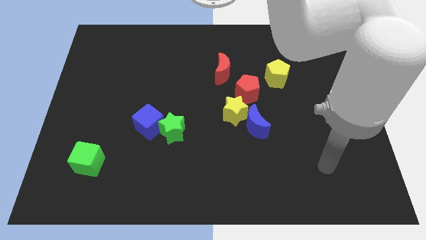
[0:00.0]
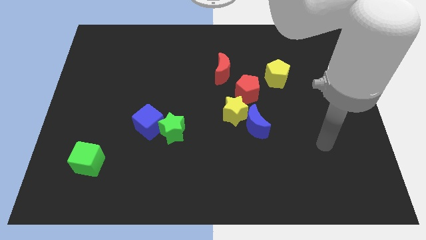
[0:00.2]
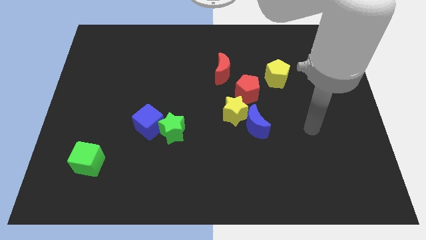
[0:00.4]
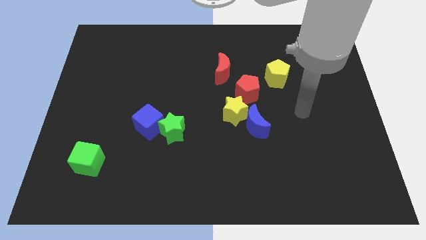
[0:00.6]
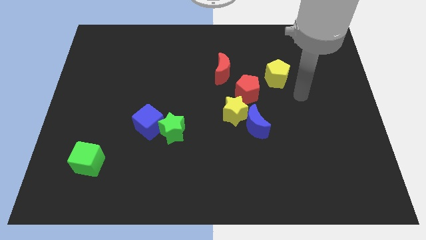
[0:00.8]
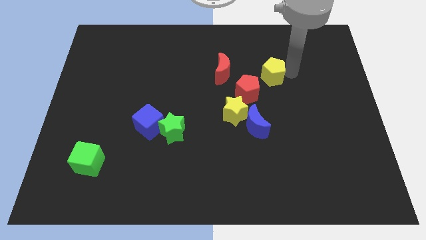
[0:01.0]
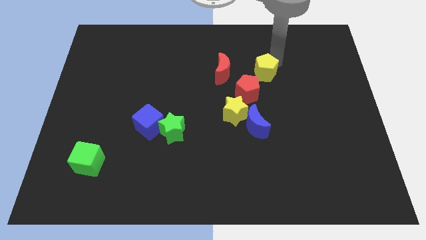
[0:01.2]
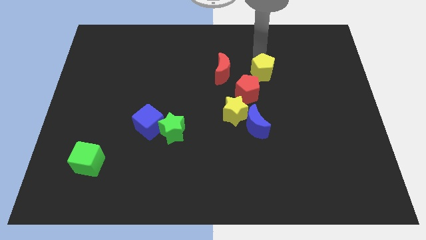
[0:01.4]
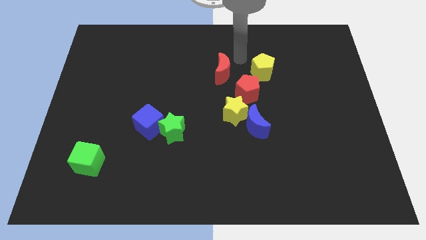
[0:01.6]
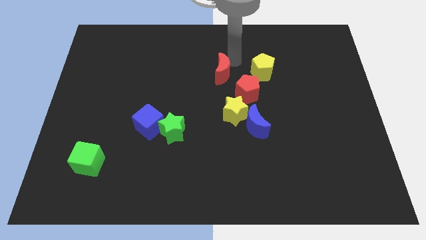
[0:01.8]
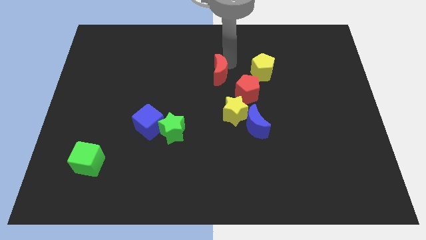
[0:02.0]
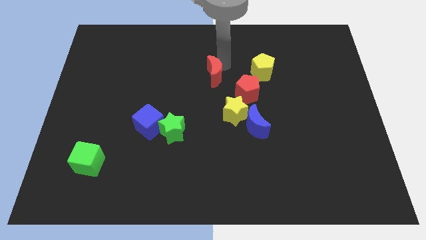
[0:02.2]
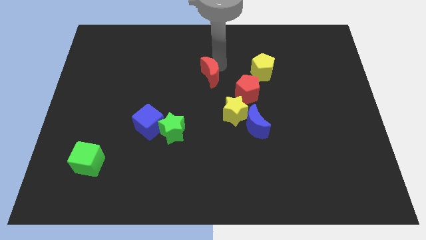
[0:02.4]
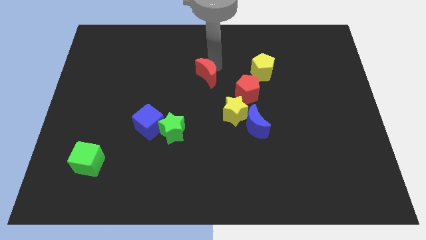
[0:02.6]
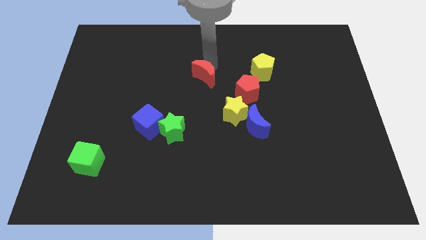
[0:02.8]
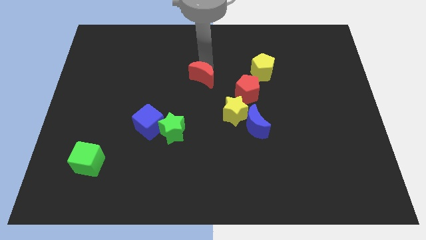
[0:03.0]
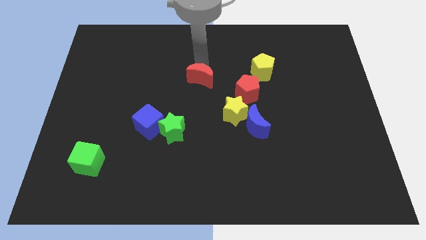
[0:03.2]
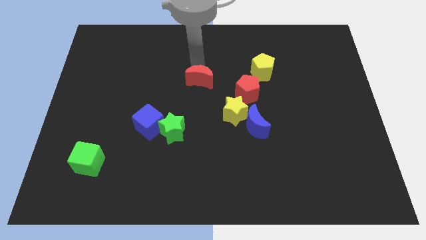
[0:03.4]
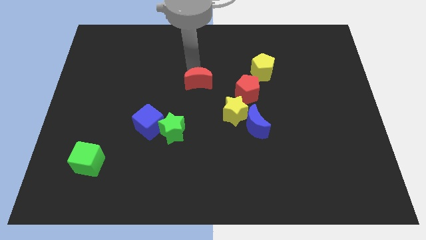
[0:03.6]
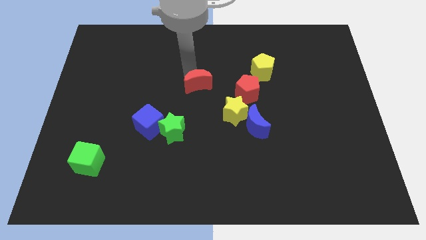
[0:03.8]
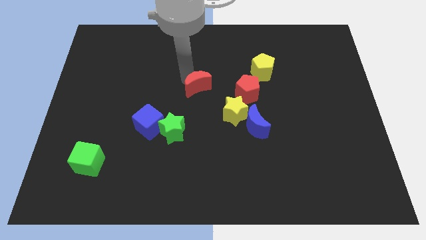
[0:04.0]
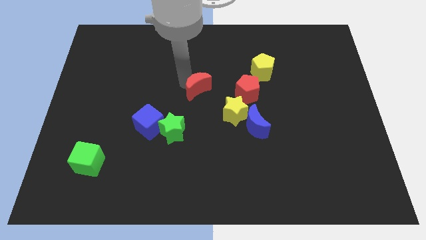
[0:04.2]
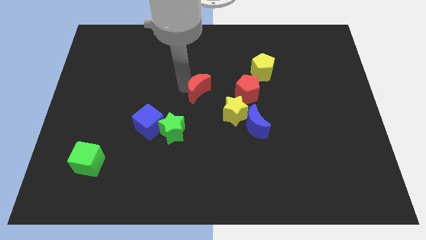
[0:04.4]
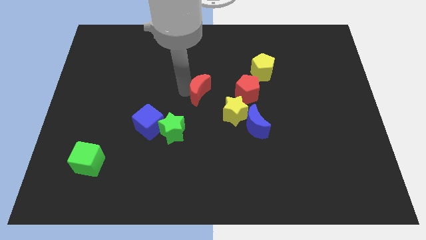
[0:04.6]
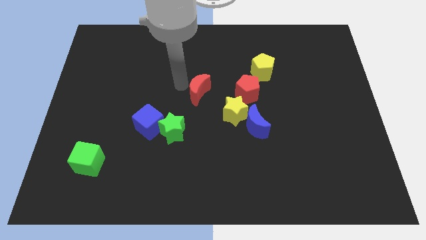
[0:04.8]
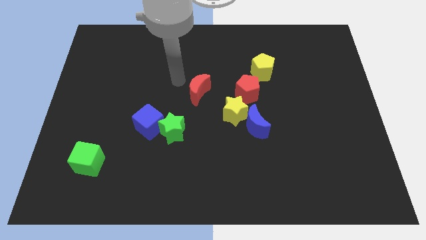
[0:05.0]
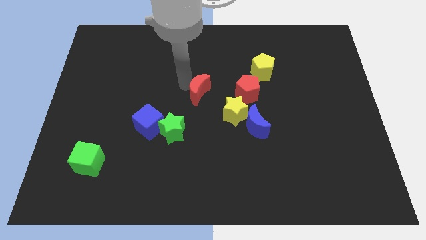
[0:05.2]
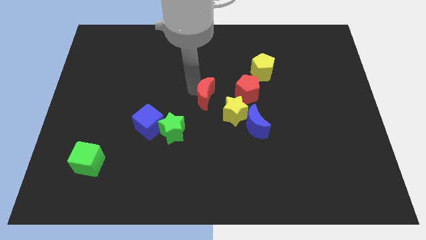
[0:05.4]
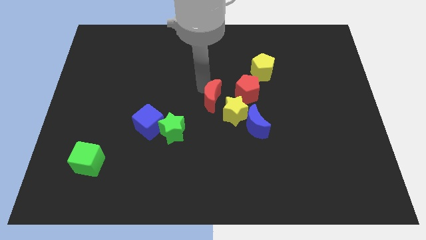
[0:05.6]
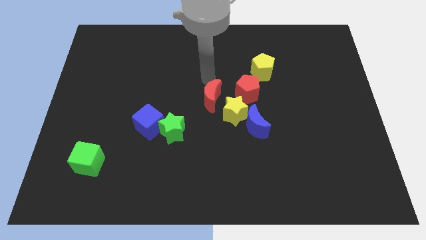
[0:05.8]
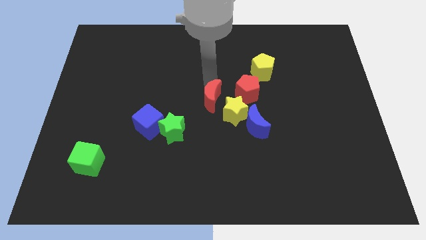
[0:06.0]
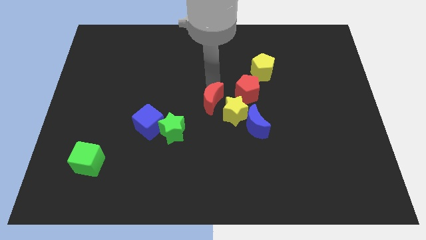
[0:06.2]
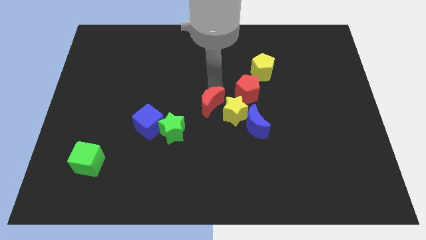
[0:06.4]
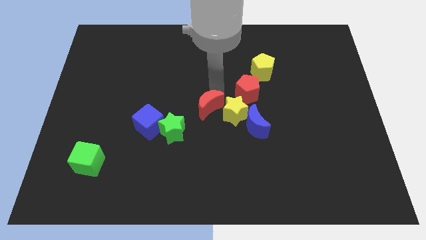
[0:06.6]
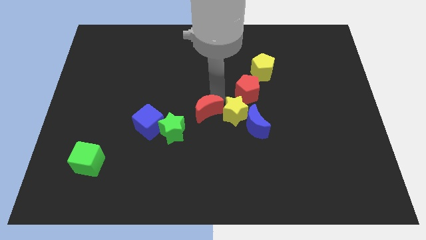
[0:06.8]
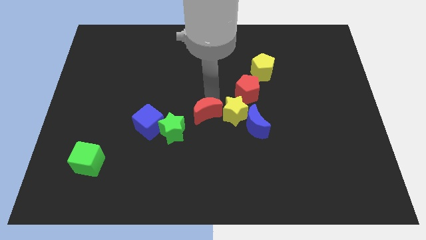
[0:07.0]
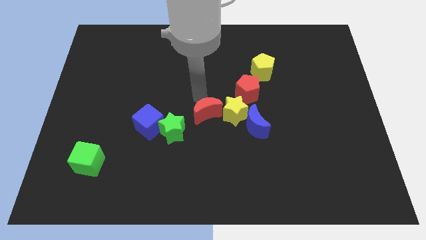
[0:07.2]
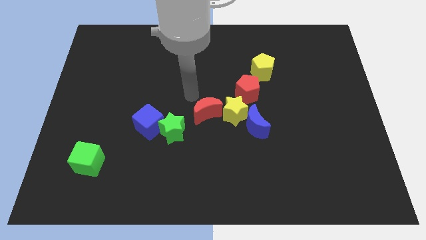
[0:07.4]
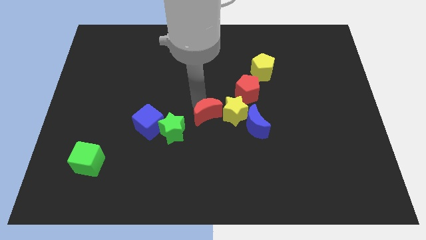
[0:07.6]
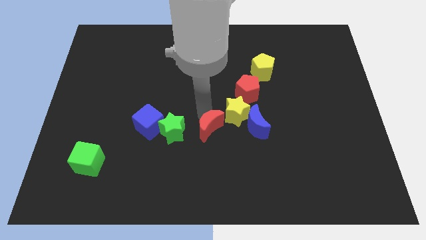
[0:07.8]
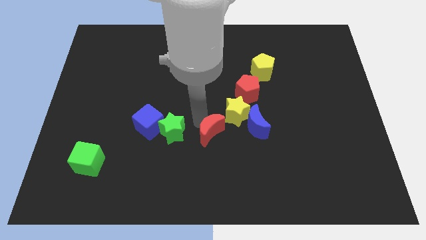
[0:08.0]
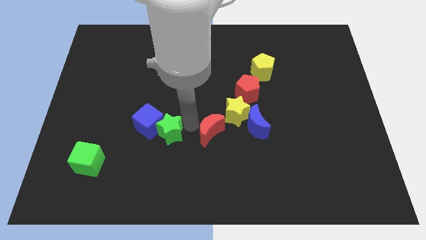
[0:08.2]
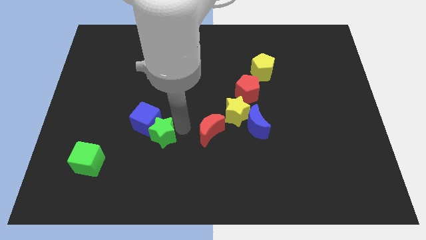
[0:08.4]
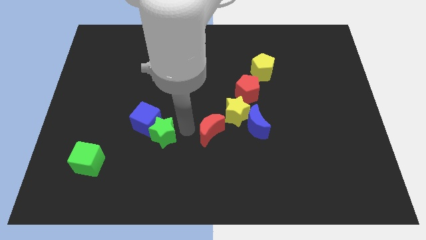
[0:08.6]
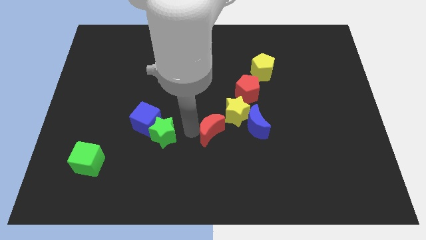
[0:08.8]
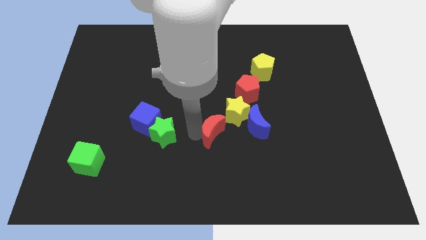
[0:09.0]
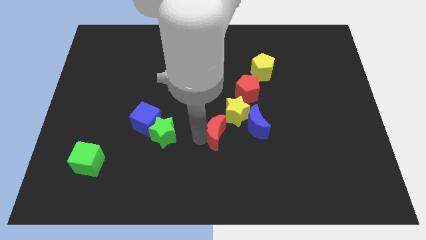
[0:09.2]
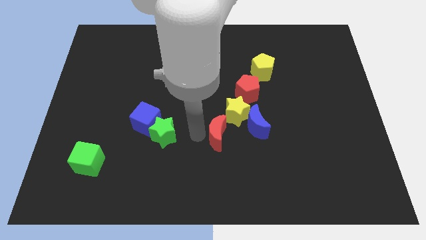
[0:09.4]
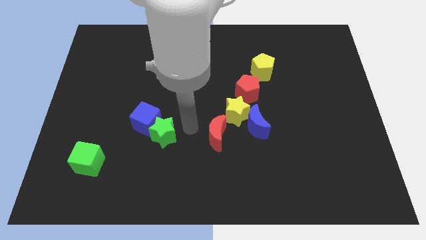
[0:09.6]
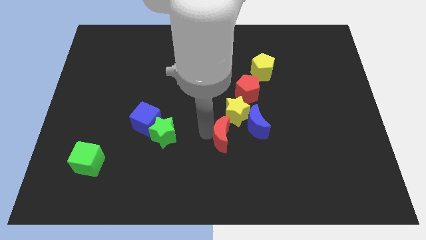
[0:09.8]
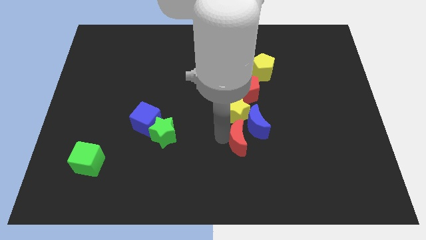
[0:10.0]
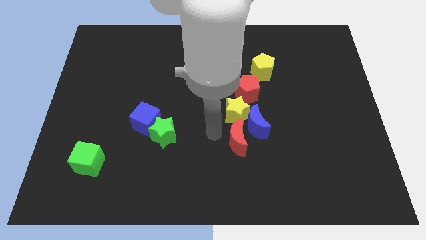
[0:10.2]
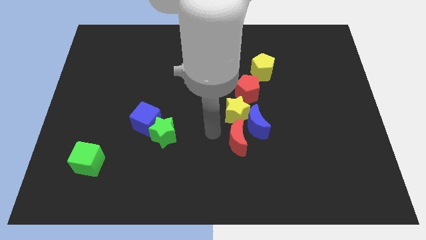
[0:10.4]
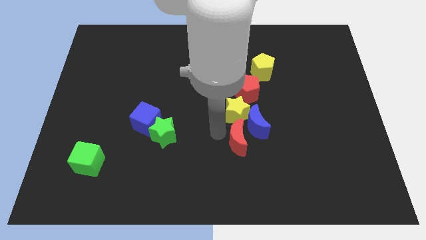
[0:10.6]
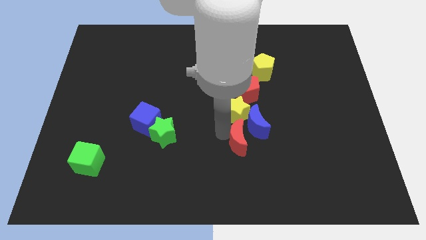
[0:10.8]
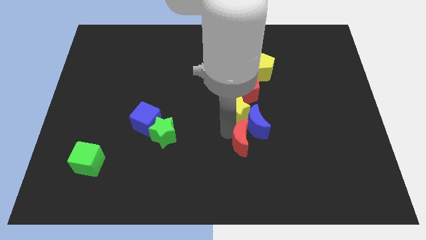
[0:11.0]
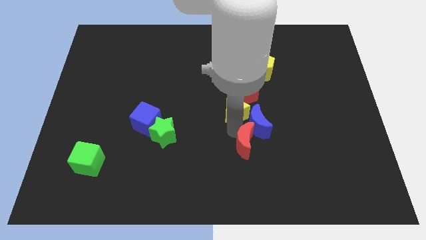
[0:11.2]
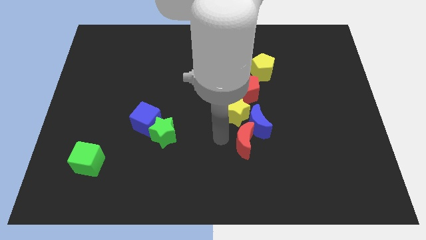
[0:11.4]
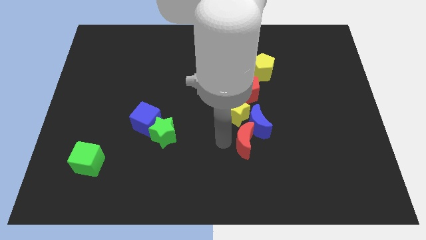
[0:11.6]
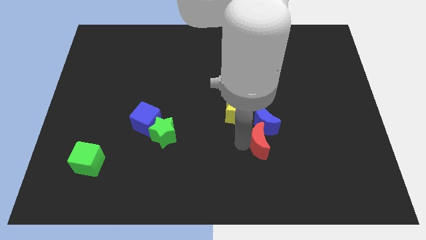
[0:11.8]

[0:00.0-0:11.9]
move the red moon to the bottom right of the blue moon
